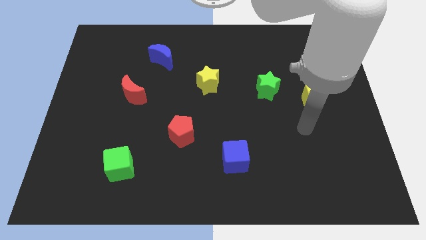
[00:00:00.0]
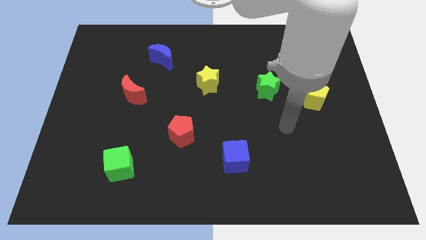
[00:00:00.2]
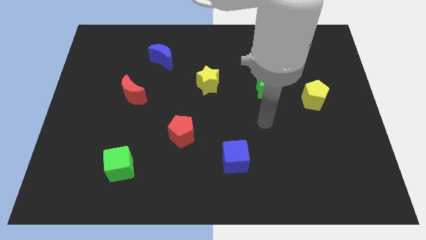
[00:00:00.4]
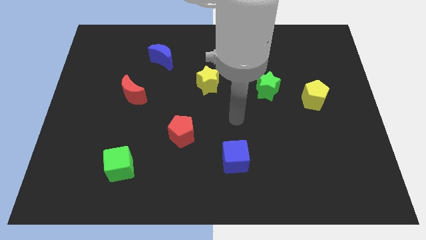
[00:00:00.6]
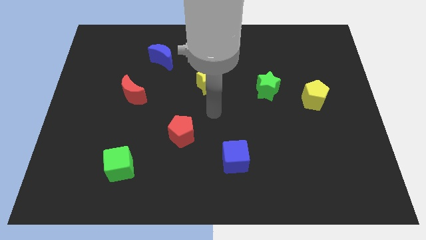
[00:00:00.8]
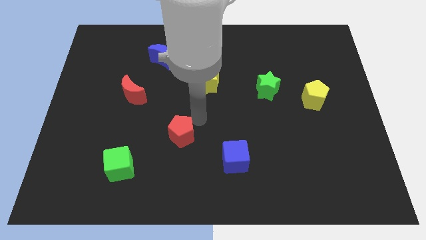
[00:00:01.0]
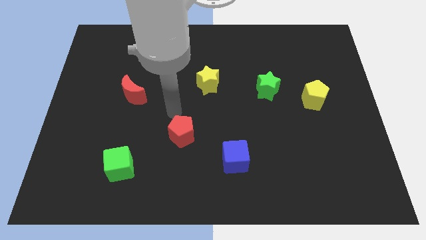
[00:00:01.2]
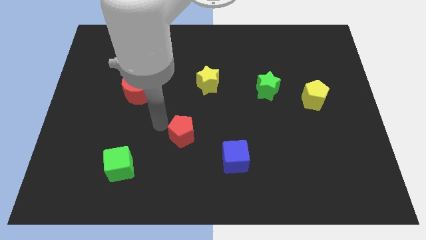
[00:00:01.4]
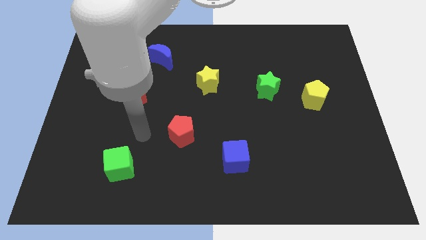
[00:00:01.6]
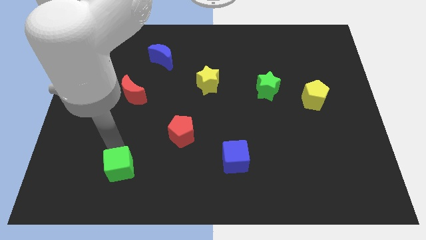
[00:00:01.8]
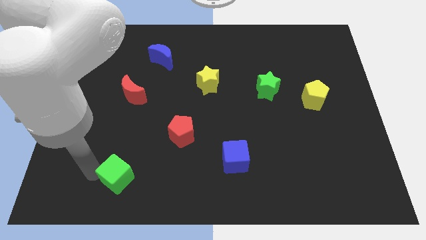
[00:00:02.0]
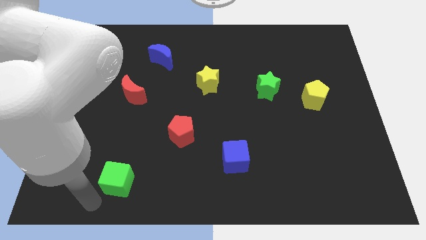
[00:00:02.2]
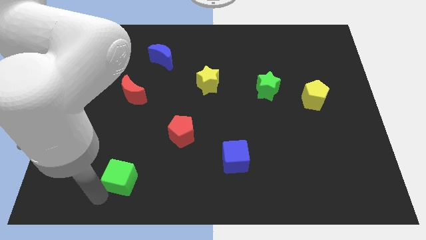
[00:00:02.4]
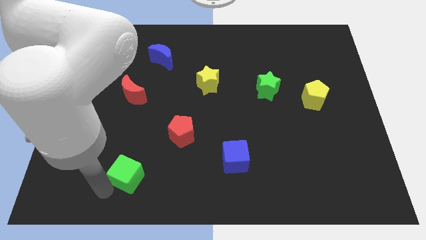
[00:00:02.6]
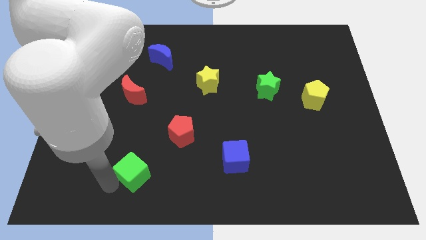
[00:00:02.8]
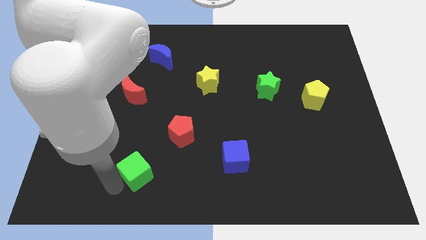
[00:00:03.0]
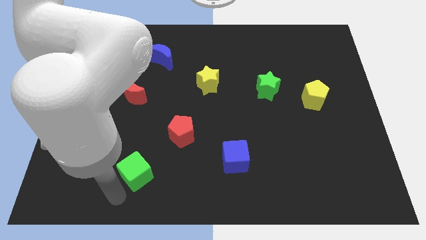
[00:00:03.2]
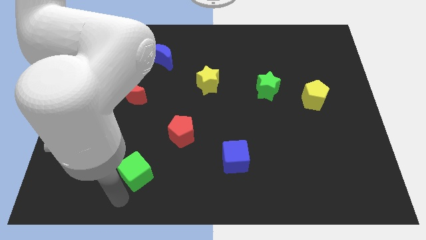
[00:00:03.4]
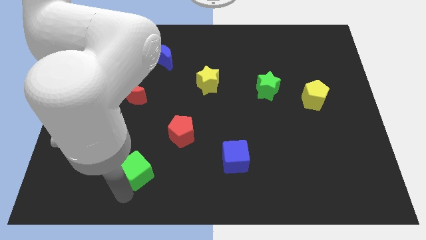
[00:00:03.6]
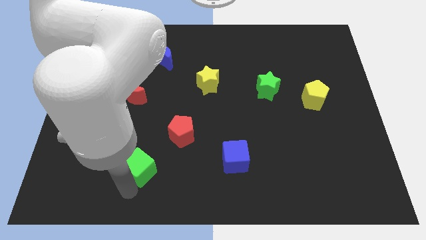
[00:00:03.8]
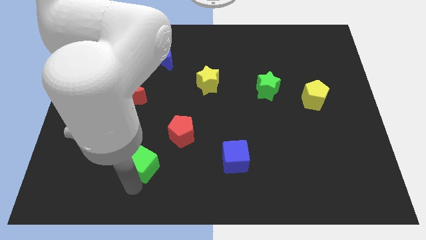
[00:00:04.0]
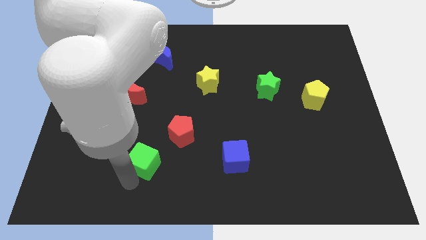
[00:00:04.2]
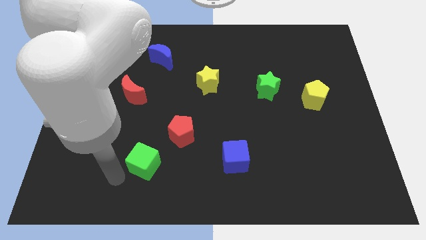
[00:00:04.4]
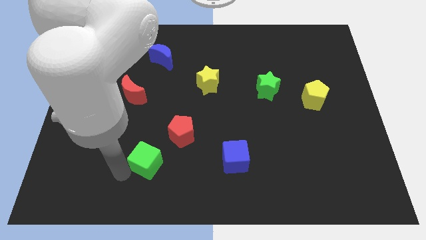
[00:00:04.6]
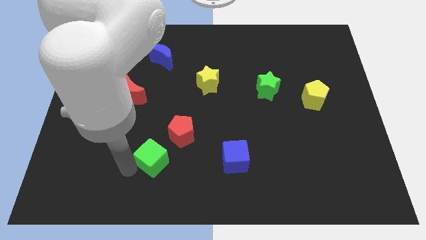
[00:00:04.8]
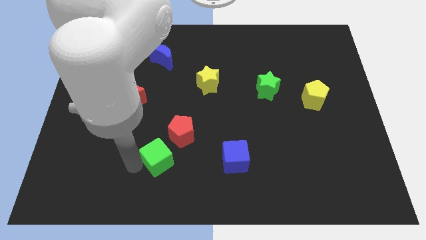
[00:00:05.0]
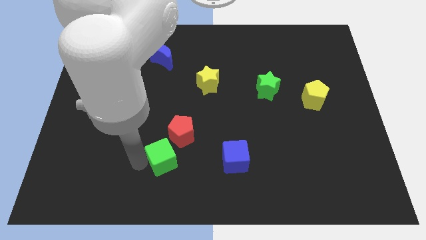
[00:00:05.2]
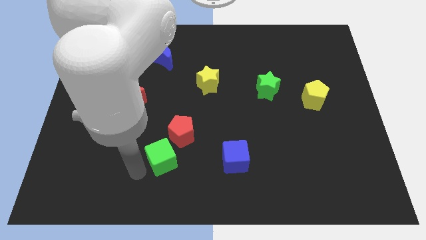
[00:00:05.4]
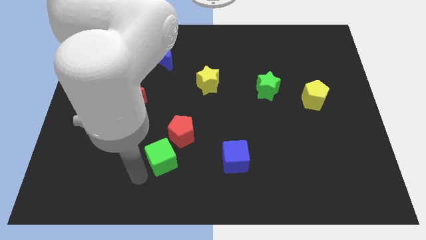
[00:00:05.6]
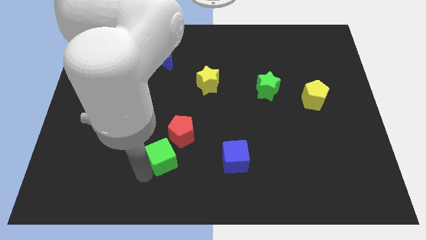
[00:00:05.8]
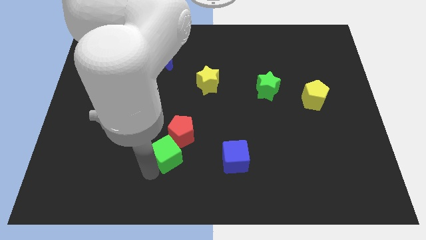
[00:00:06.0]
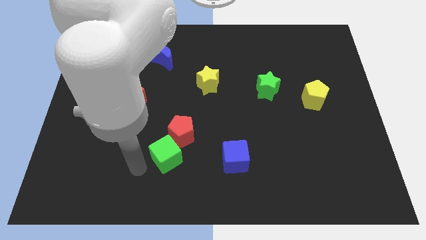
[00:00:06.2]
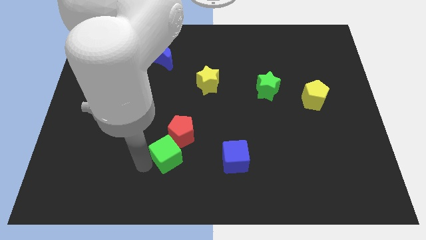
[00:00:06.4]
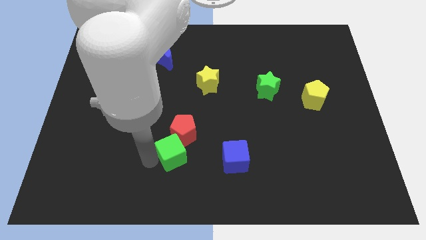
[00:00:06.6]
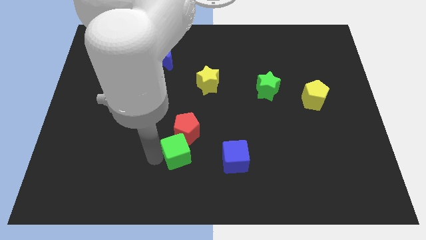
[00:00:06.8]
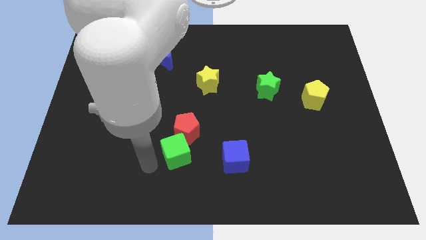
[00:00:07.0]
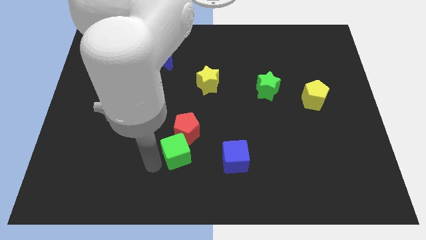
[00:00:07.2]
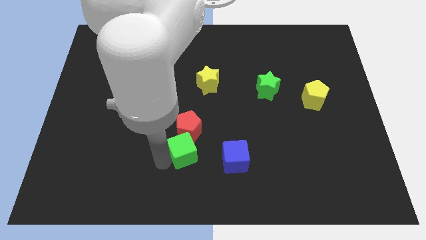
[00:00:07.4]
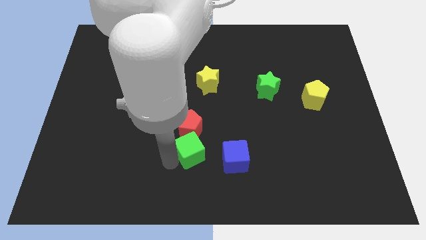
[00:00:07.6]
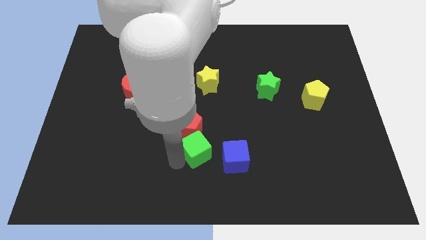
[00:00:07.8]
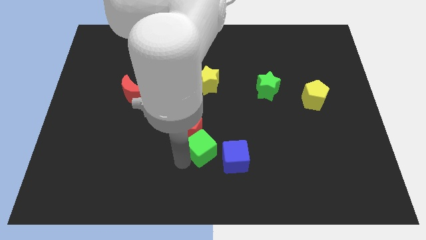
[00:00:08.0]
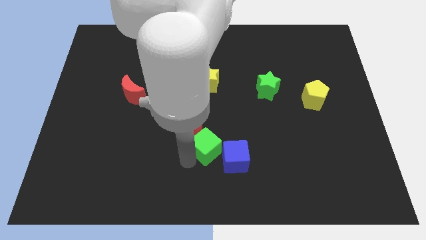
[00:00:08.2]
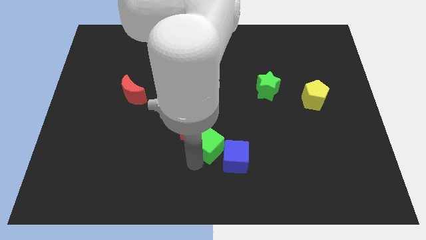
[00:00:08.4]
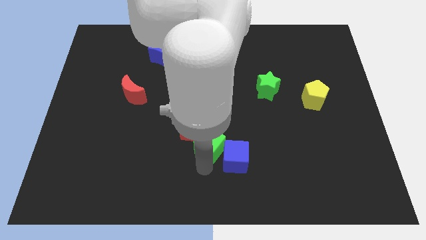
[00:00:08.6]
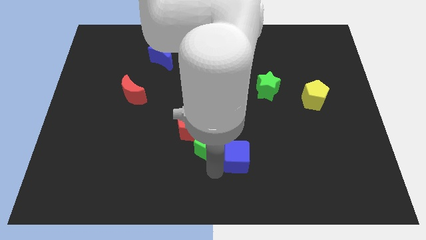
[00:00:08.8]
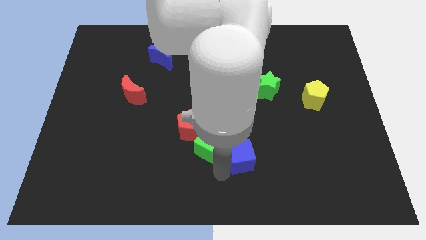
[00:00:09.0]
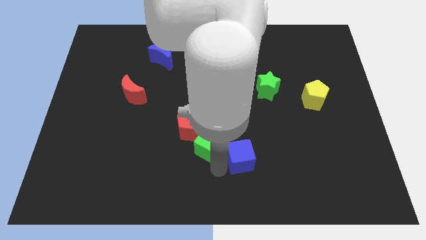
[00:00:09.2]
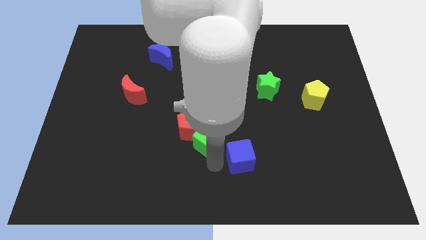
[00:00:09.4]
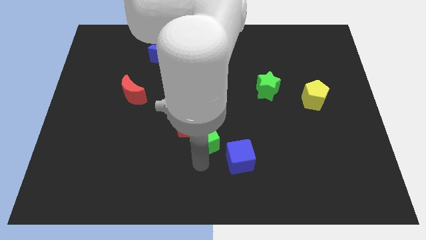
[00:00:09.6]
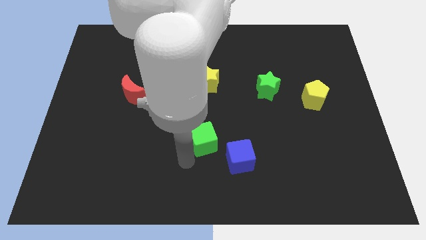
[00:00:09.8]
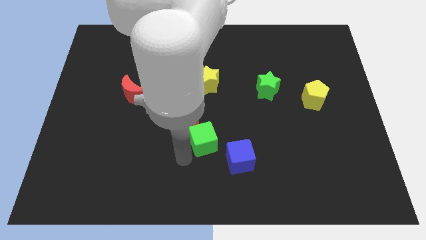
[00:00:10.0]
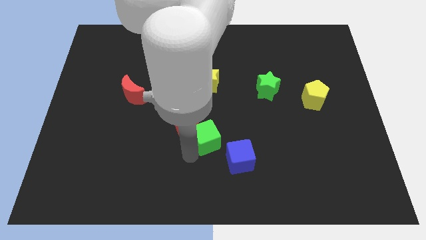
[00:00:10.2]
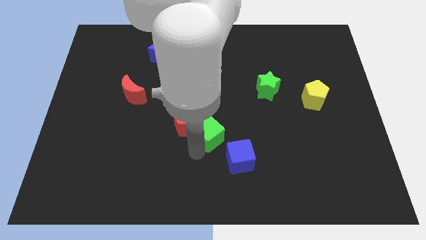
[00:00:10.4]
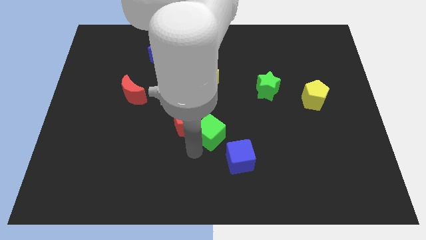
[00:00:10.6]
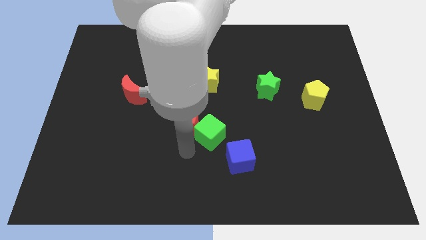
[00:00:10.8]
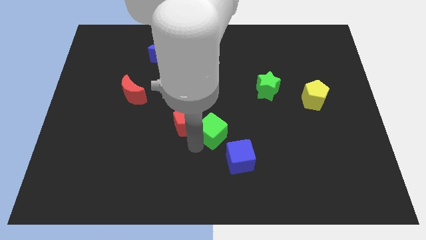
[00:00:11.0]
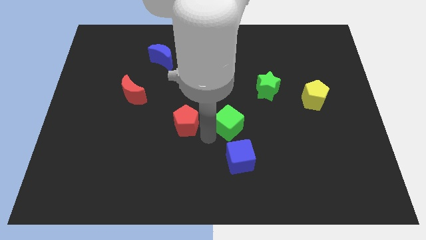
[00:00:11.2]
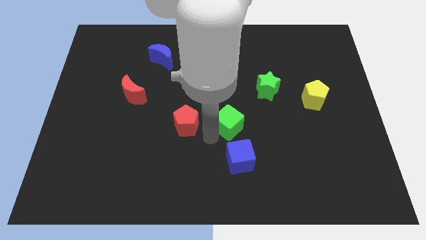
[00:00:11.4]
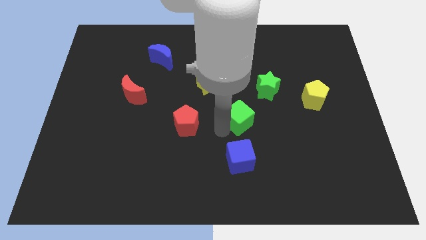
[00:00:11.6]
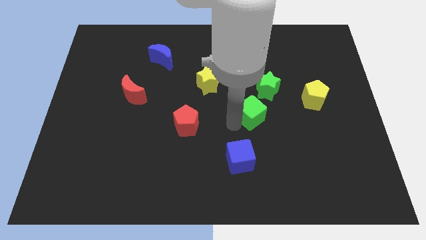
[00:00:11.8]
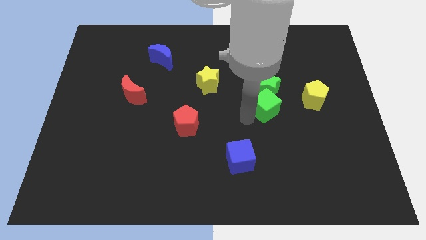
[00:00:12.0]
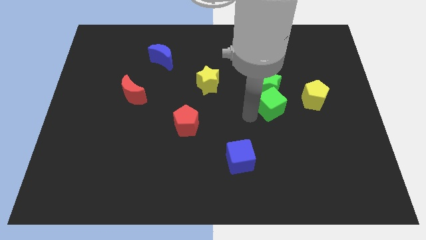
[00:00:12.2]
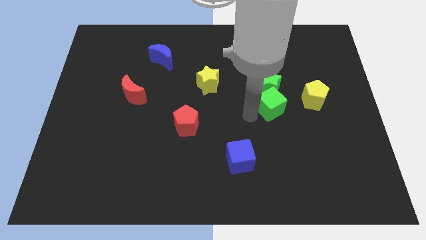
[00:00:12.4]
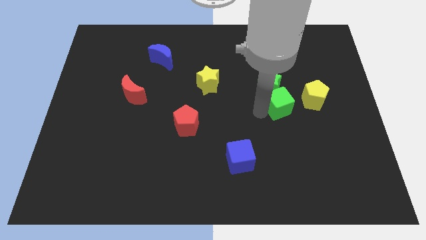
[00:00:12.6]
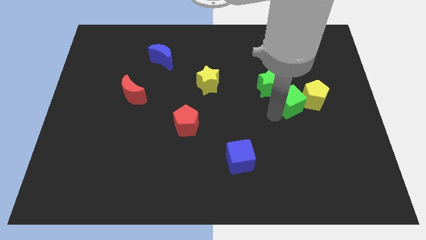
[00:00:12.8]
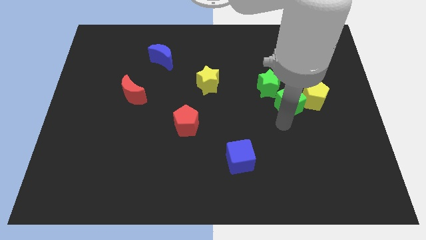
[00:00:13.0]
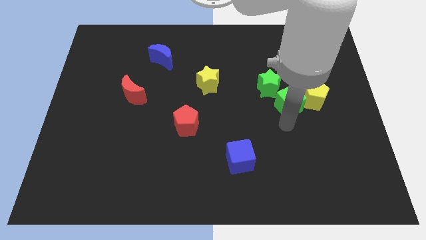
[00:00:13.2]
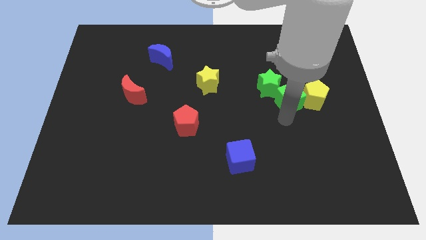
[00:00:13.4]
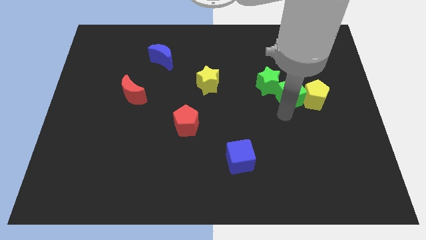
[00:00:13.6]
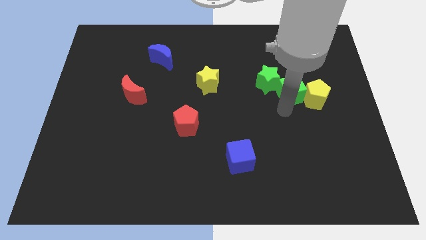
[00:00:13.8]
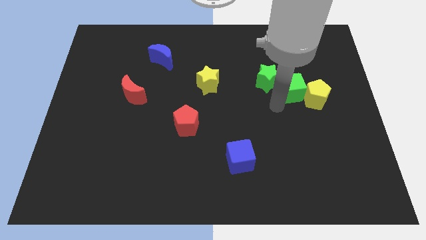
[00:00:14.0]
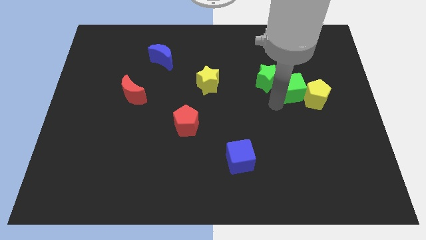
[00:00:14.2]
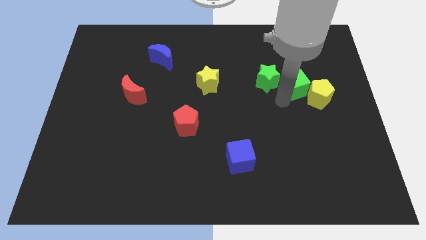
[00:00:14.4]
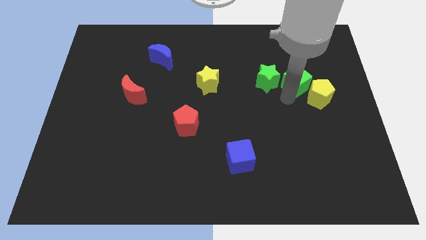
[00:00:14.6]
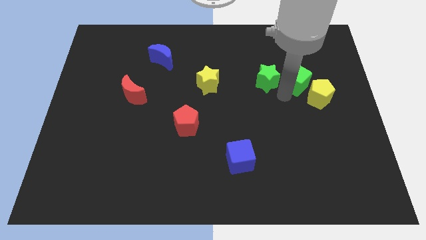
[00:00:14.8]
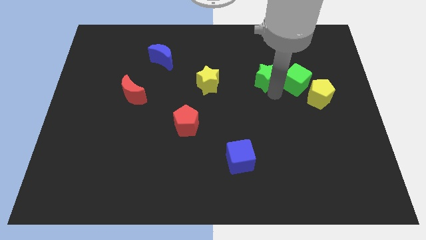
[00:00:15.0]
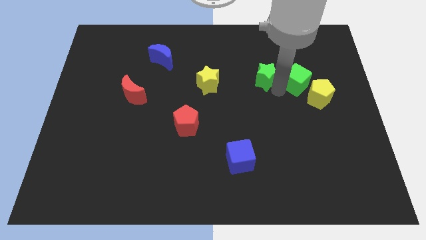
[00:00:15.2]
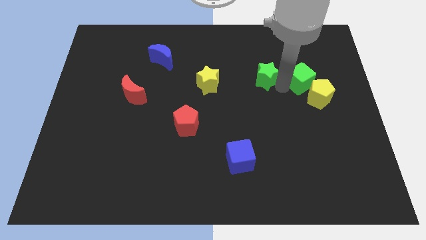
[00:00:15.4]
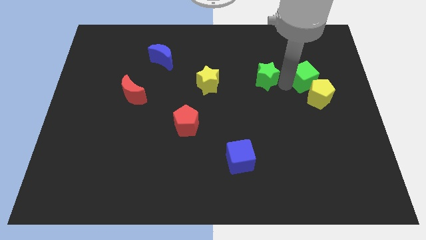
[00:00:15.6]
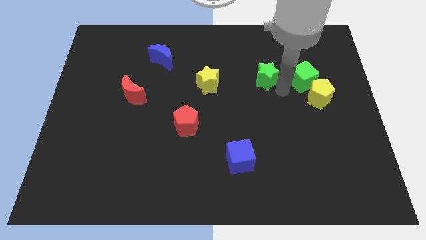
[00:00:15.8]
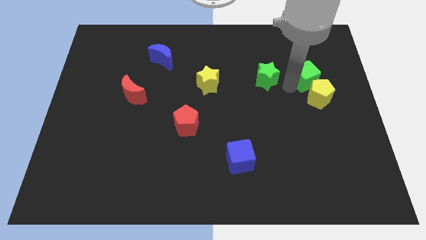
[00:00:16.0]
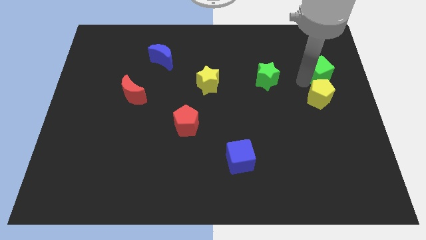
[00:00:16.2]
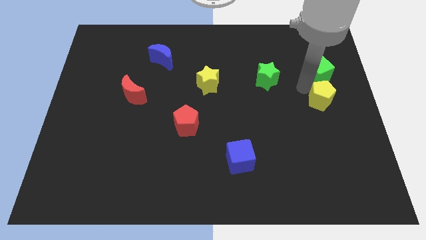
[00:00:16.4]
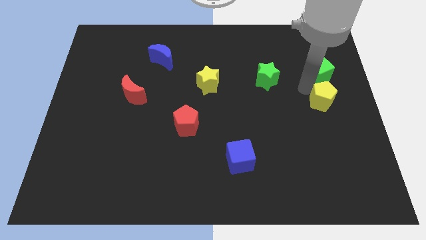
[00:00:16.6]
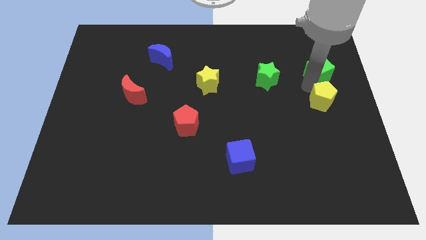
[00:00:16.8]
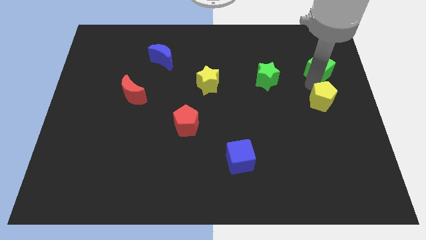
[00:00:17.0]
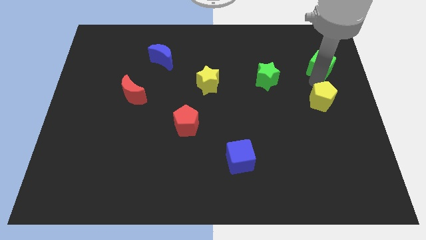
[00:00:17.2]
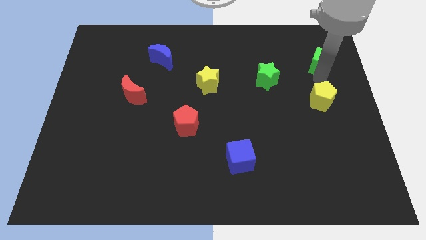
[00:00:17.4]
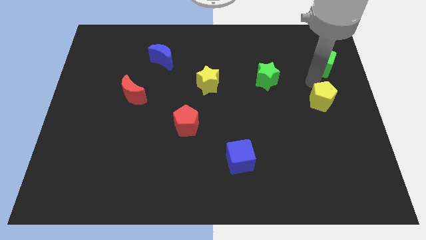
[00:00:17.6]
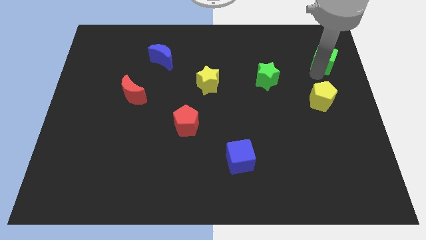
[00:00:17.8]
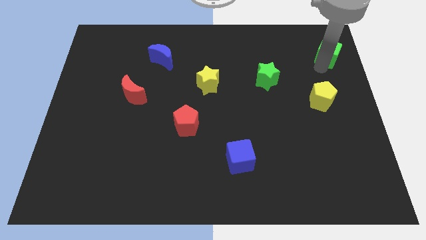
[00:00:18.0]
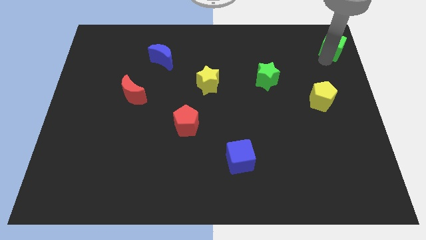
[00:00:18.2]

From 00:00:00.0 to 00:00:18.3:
slide the green cube to the upper right corner
